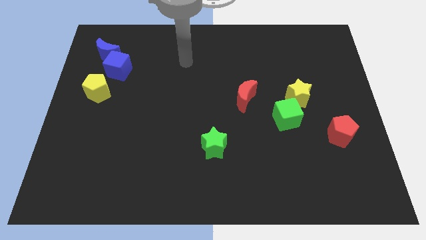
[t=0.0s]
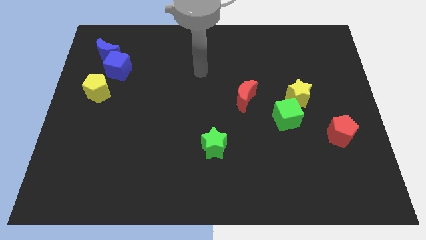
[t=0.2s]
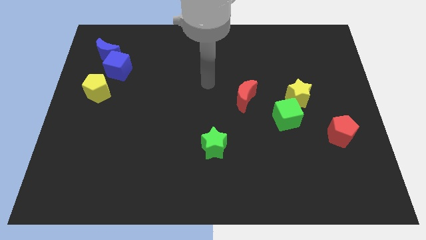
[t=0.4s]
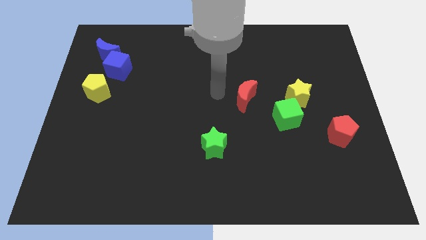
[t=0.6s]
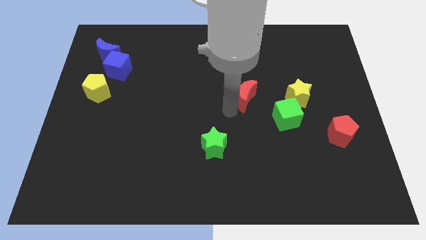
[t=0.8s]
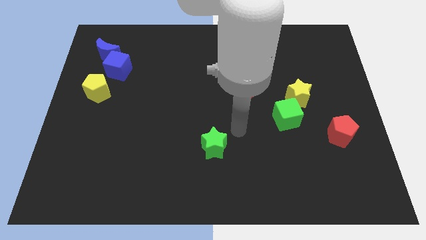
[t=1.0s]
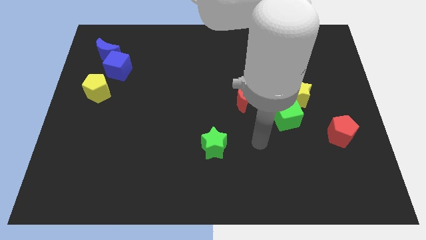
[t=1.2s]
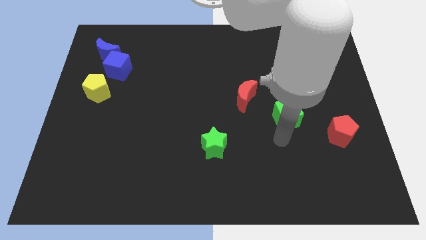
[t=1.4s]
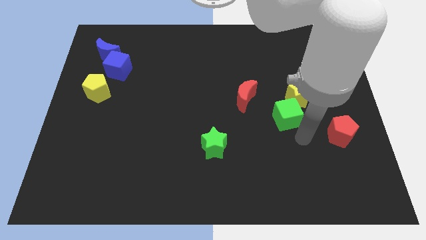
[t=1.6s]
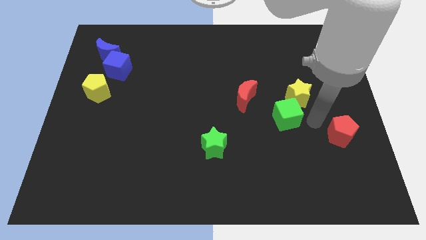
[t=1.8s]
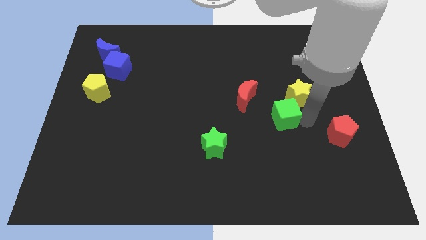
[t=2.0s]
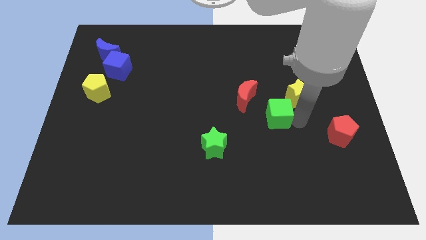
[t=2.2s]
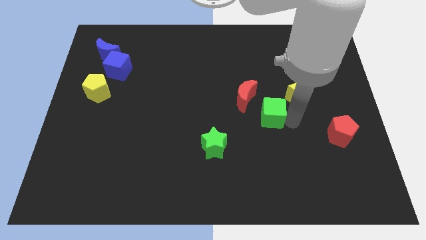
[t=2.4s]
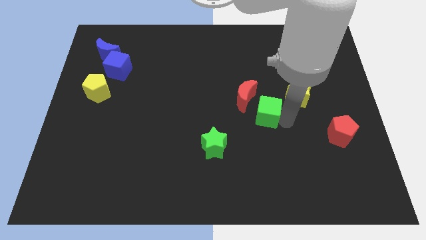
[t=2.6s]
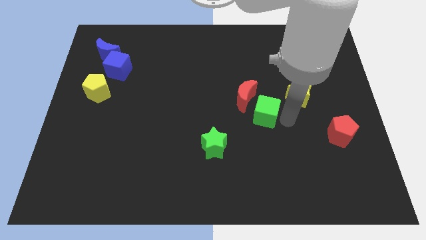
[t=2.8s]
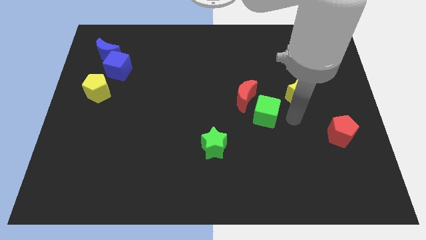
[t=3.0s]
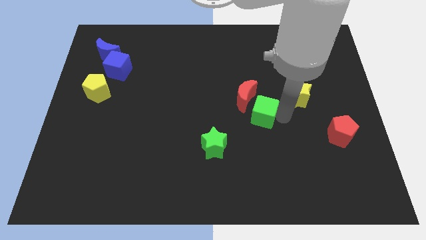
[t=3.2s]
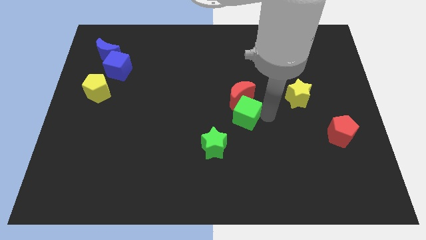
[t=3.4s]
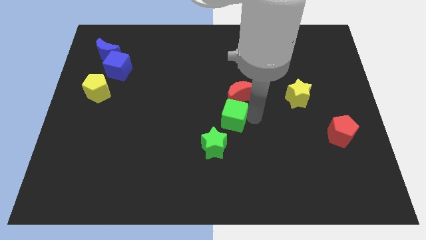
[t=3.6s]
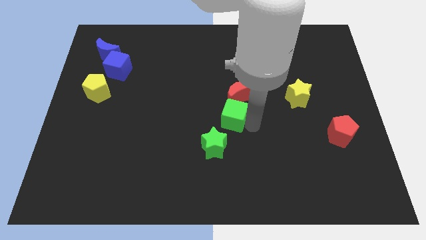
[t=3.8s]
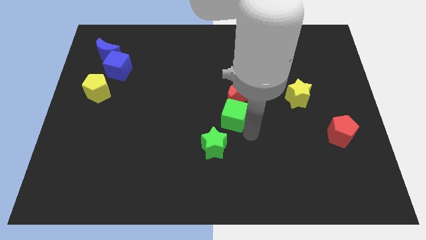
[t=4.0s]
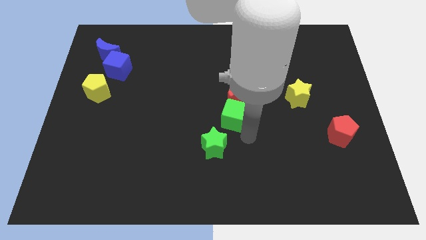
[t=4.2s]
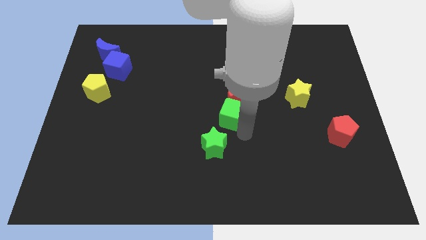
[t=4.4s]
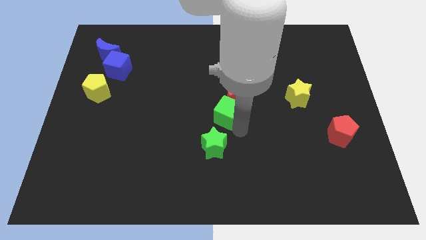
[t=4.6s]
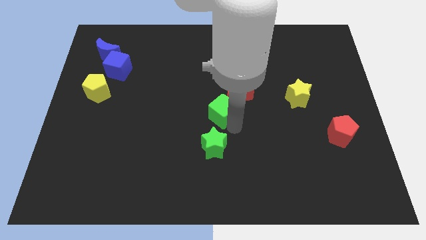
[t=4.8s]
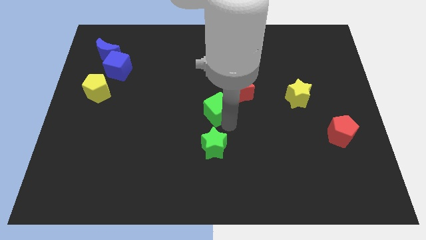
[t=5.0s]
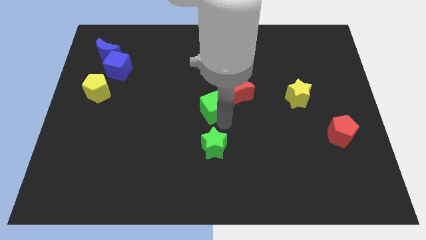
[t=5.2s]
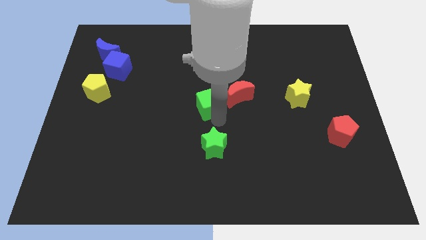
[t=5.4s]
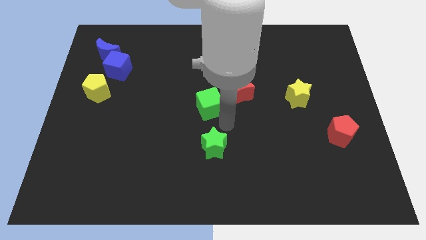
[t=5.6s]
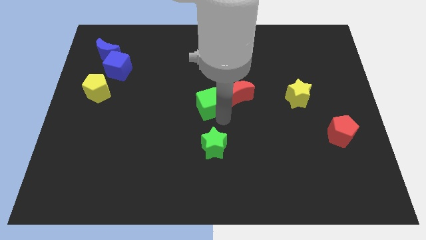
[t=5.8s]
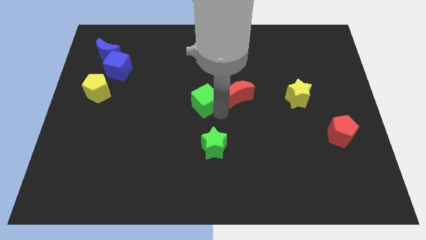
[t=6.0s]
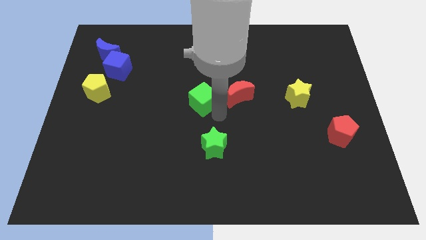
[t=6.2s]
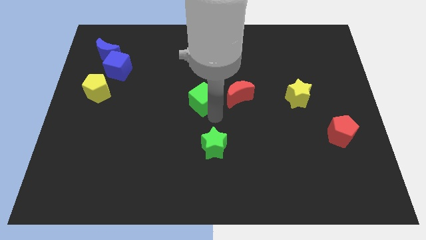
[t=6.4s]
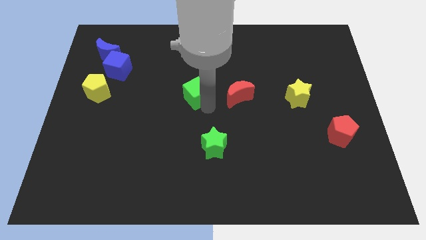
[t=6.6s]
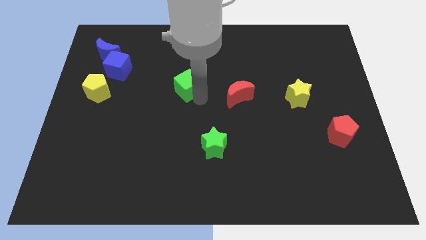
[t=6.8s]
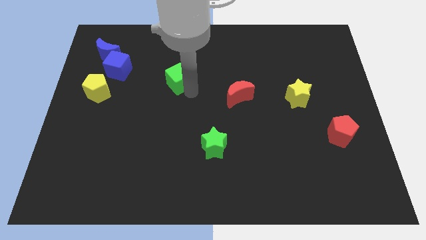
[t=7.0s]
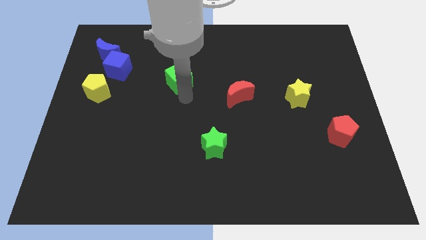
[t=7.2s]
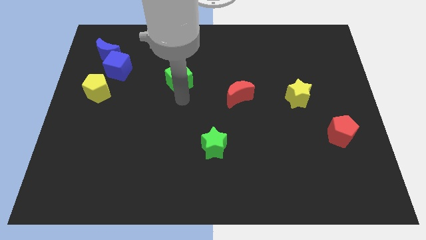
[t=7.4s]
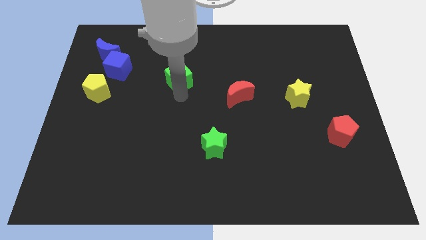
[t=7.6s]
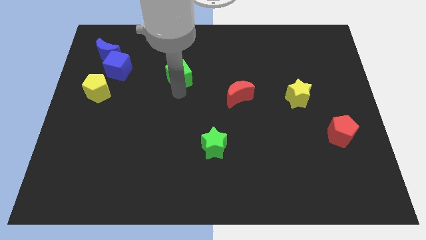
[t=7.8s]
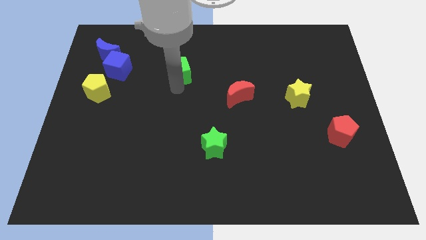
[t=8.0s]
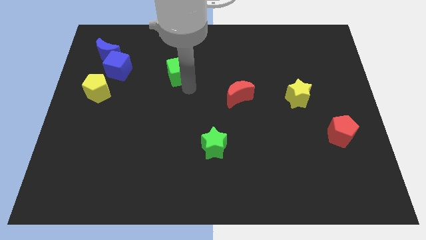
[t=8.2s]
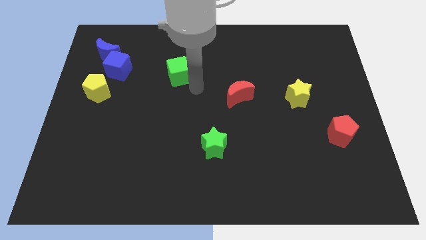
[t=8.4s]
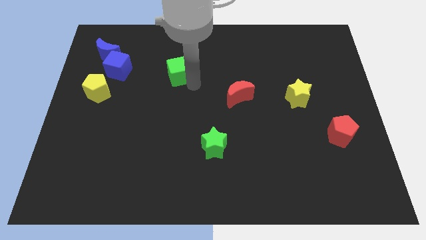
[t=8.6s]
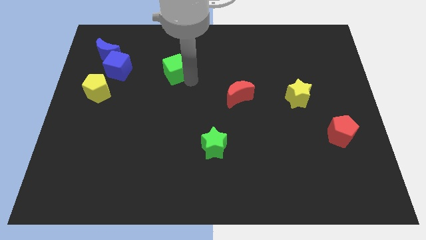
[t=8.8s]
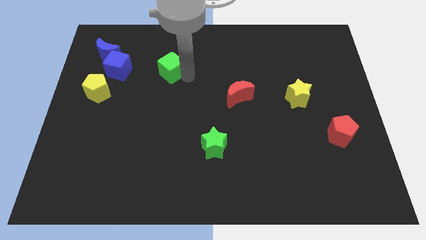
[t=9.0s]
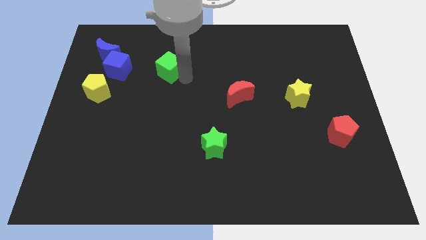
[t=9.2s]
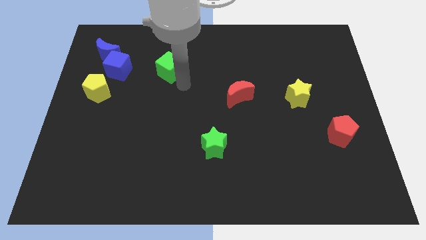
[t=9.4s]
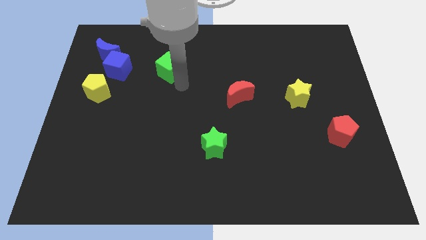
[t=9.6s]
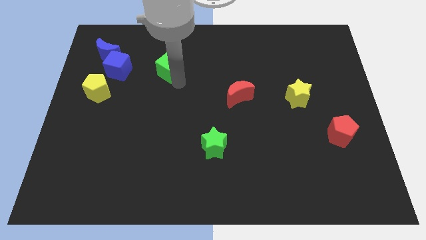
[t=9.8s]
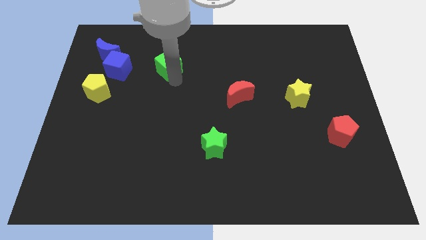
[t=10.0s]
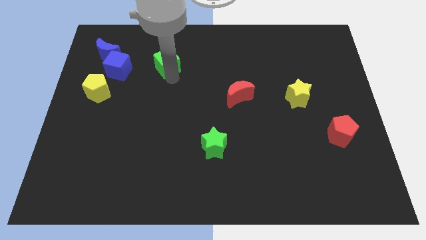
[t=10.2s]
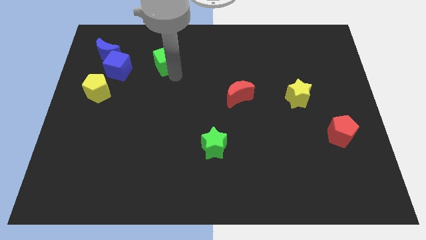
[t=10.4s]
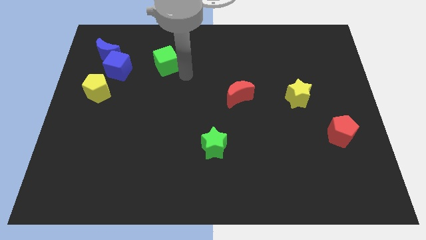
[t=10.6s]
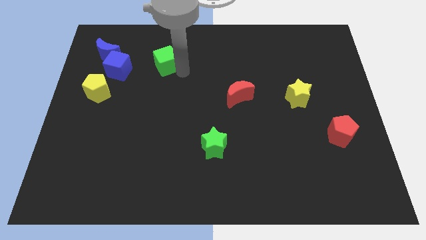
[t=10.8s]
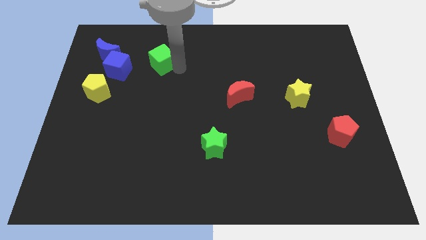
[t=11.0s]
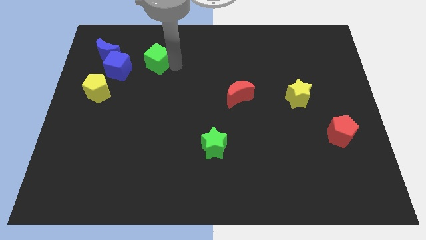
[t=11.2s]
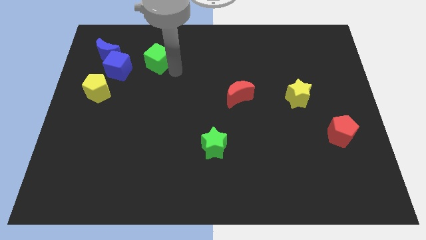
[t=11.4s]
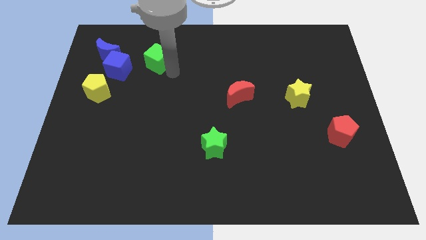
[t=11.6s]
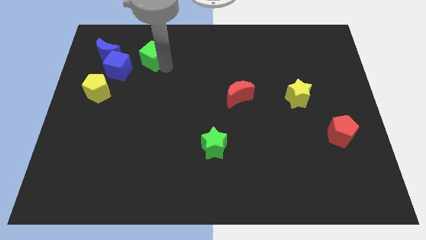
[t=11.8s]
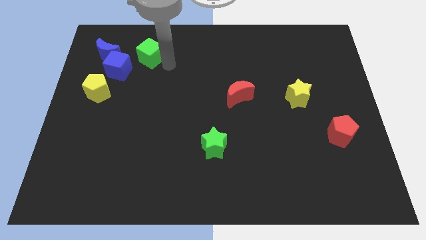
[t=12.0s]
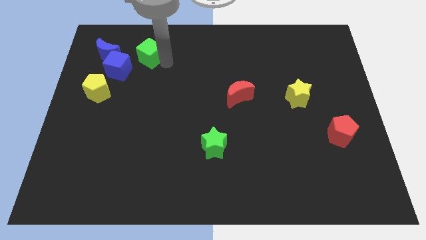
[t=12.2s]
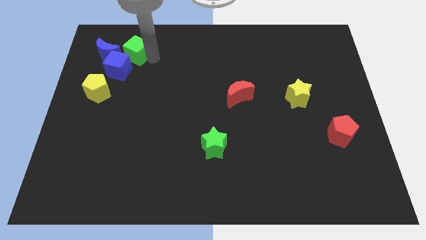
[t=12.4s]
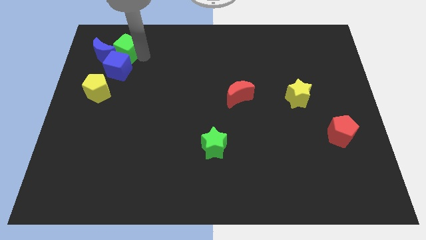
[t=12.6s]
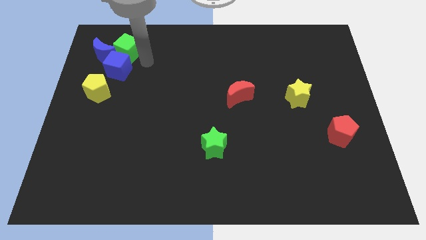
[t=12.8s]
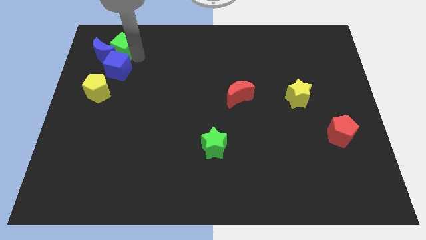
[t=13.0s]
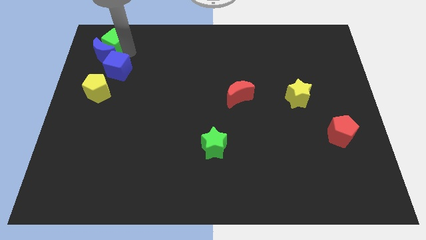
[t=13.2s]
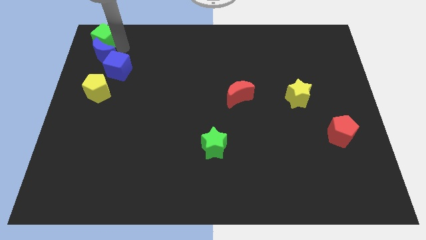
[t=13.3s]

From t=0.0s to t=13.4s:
slide the green cube to the upper left corner
